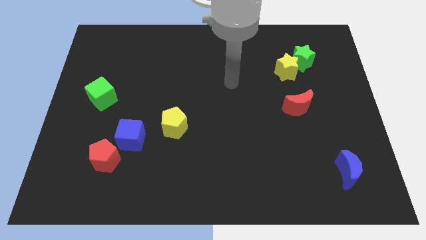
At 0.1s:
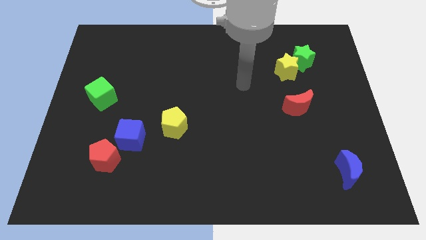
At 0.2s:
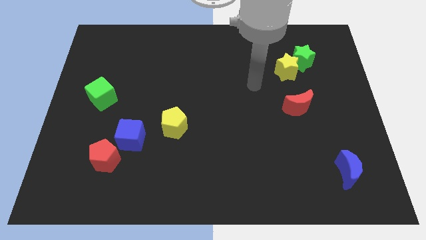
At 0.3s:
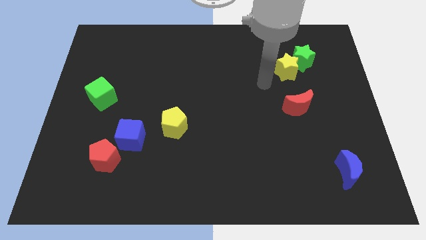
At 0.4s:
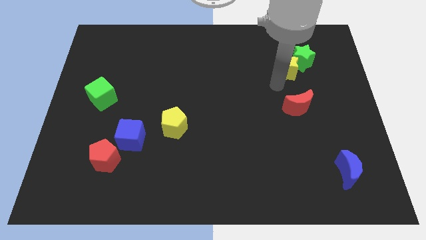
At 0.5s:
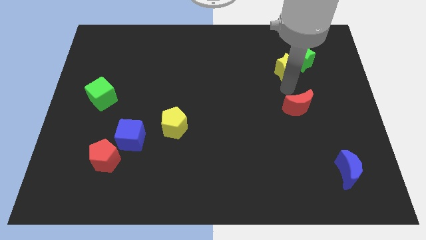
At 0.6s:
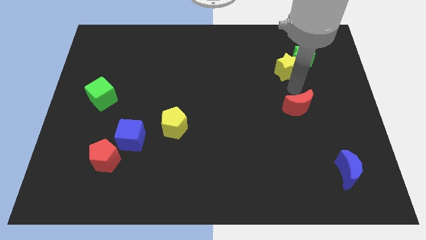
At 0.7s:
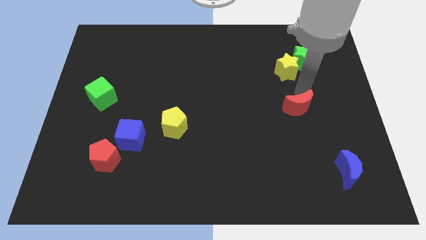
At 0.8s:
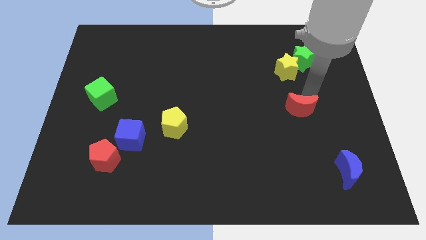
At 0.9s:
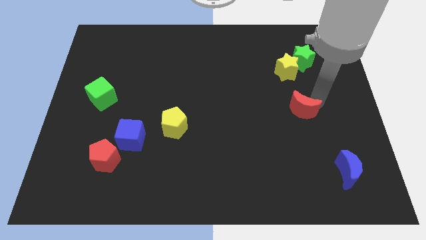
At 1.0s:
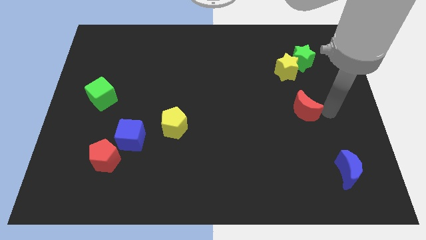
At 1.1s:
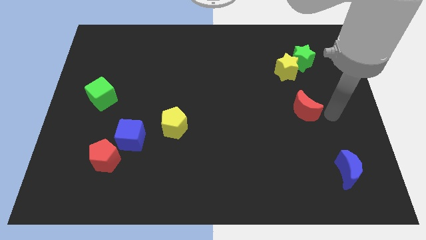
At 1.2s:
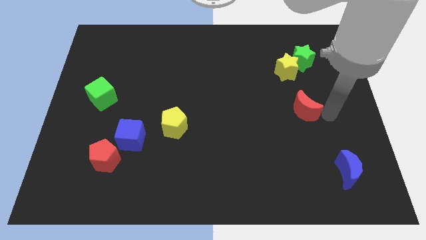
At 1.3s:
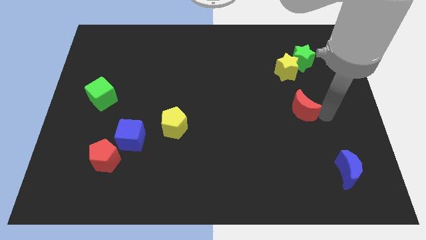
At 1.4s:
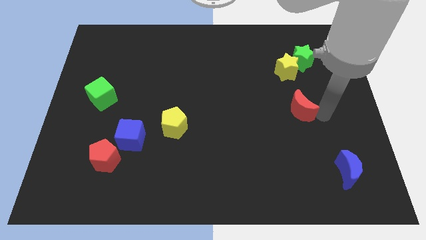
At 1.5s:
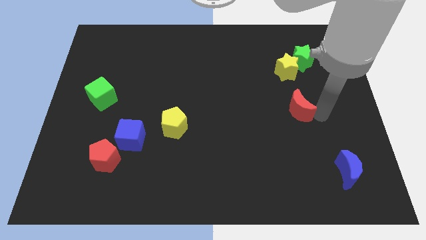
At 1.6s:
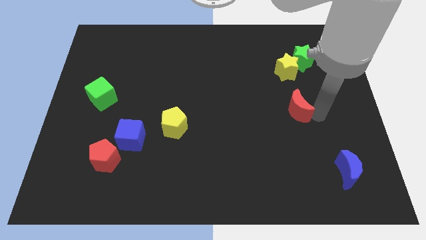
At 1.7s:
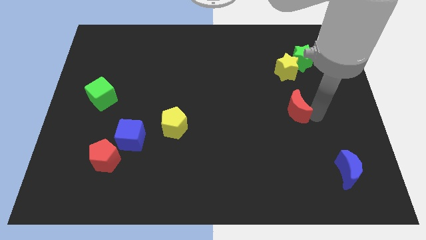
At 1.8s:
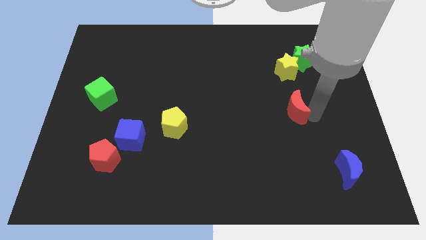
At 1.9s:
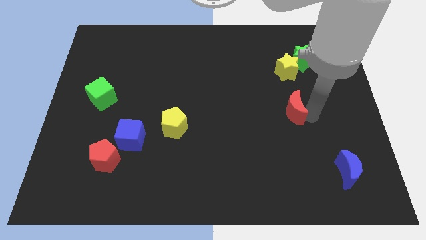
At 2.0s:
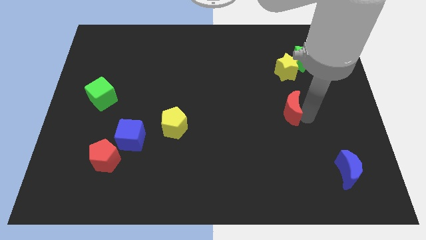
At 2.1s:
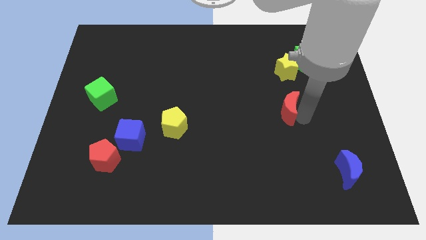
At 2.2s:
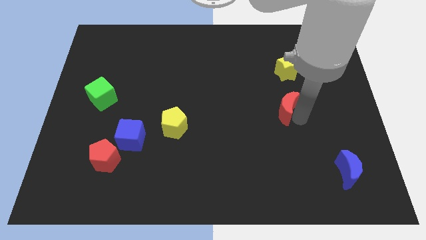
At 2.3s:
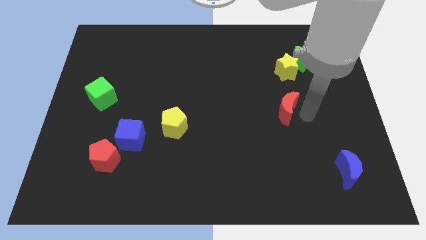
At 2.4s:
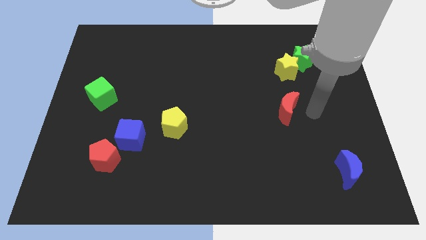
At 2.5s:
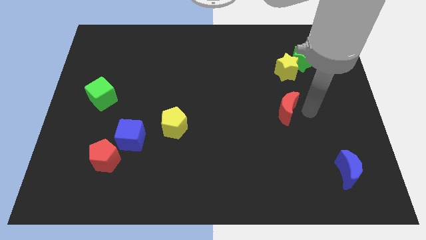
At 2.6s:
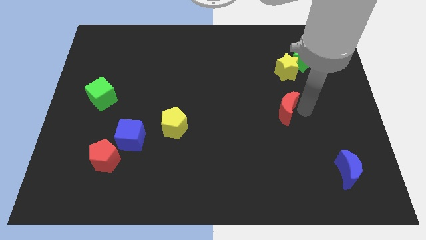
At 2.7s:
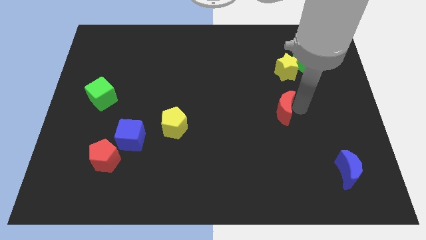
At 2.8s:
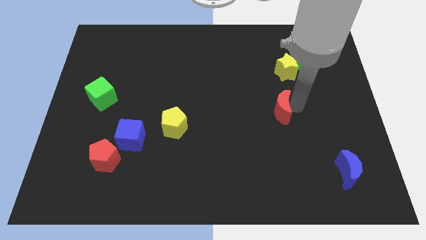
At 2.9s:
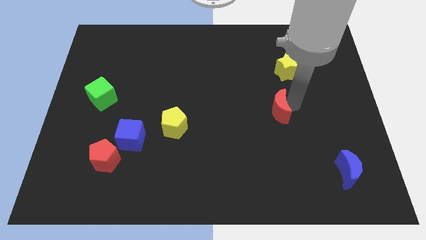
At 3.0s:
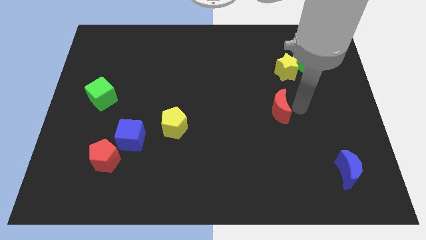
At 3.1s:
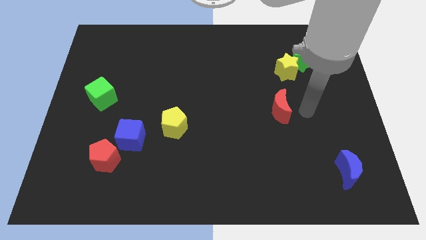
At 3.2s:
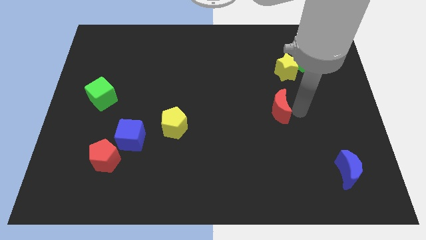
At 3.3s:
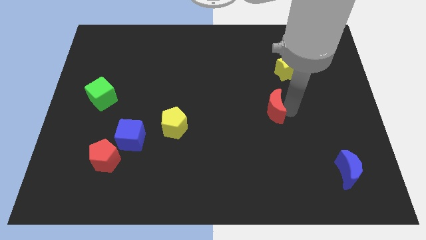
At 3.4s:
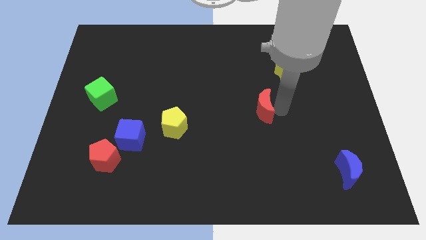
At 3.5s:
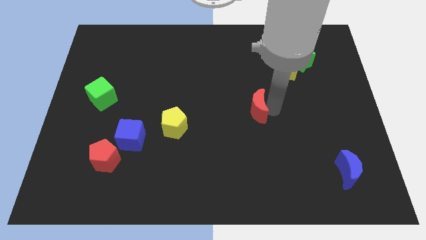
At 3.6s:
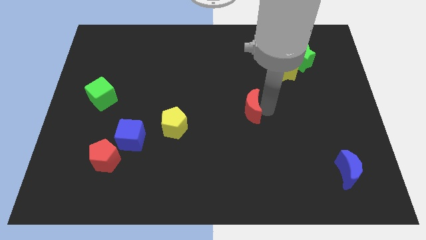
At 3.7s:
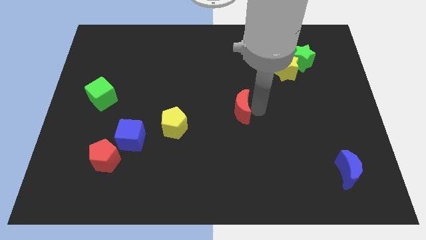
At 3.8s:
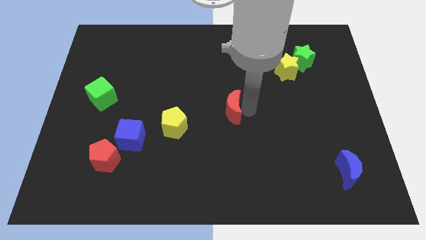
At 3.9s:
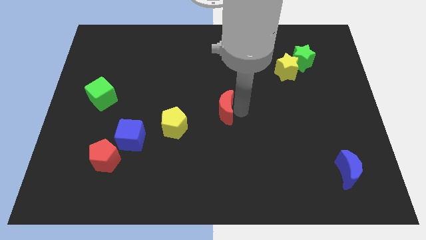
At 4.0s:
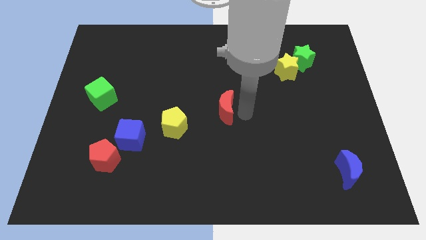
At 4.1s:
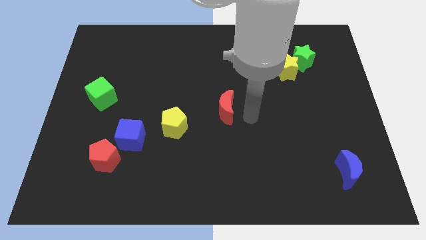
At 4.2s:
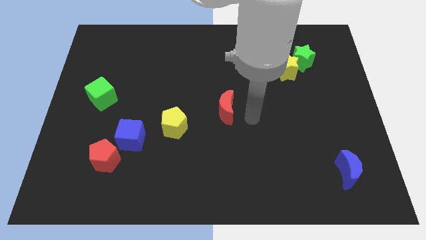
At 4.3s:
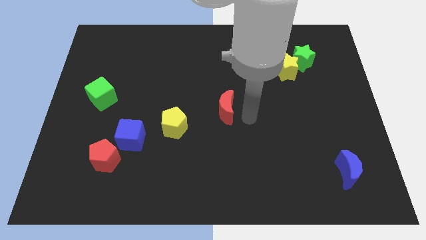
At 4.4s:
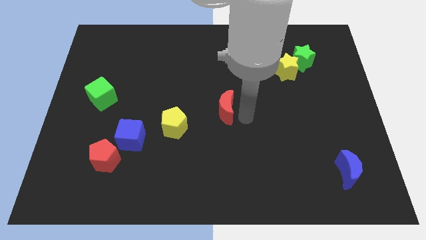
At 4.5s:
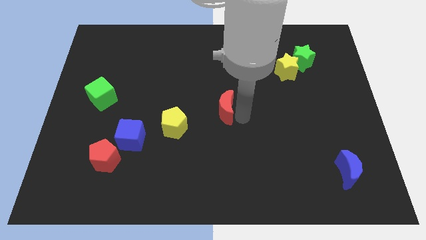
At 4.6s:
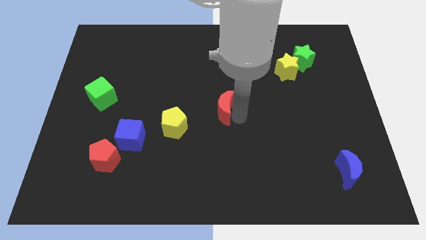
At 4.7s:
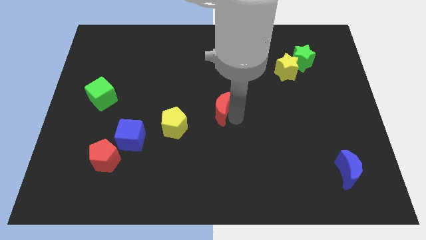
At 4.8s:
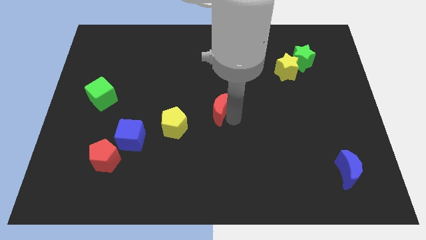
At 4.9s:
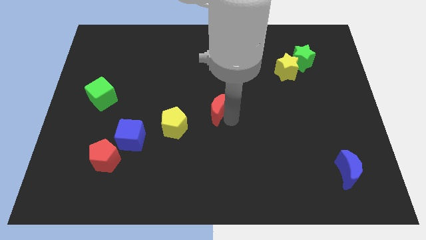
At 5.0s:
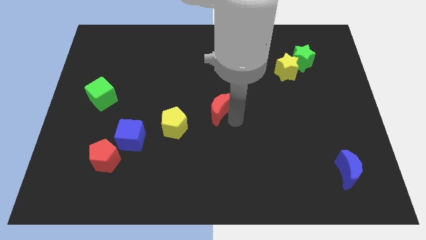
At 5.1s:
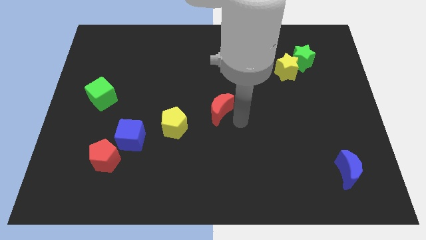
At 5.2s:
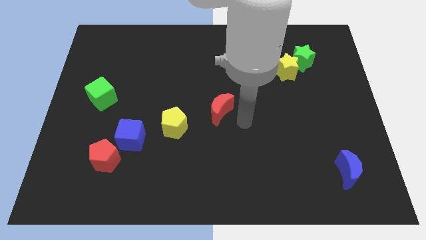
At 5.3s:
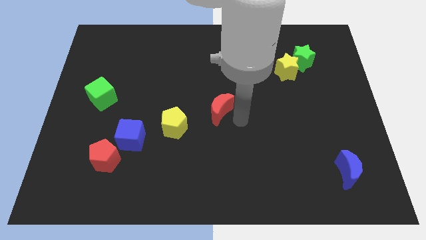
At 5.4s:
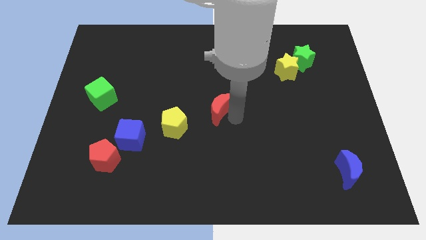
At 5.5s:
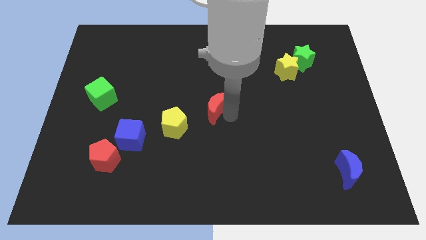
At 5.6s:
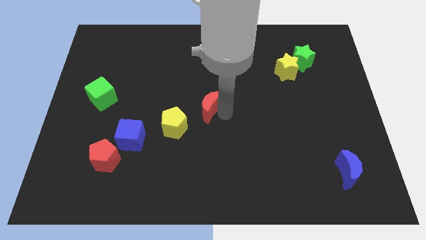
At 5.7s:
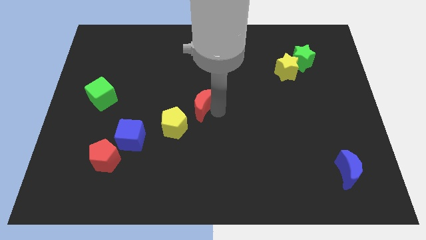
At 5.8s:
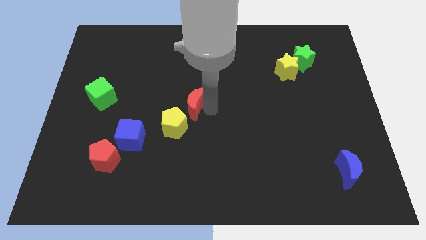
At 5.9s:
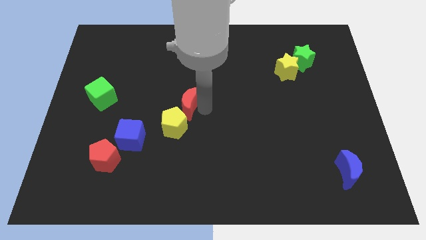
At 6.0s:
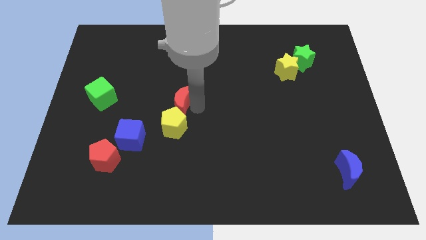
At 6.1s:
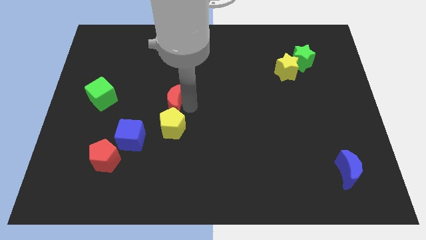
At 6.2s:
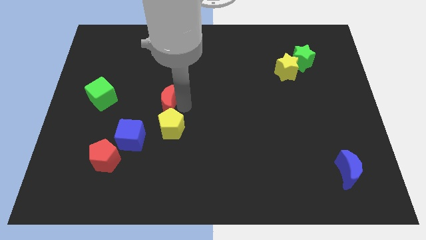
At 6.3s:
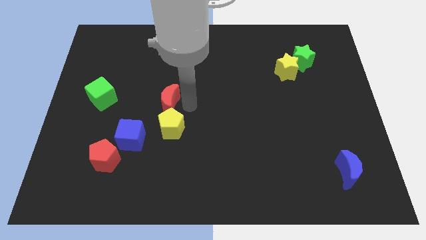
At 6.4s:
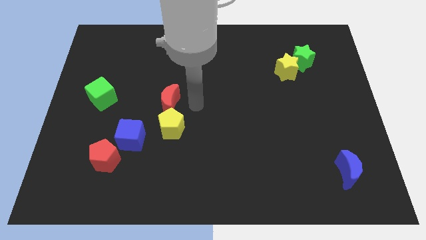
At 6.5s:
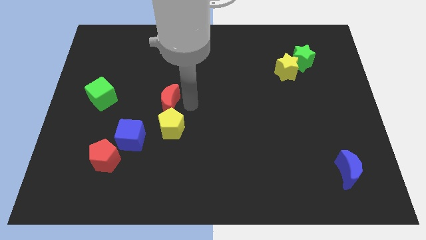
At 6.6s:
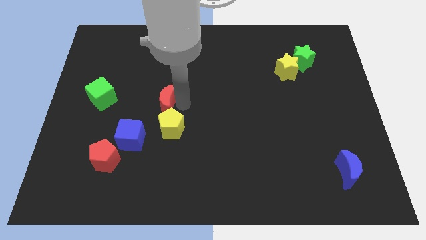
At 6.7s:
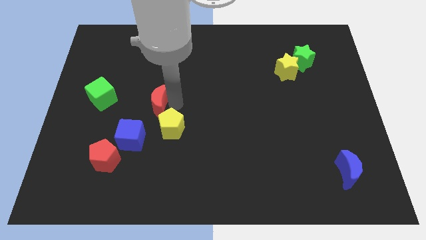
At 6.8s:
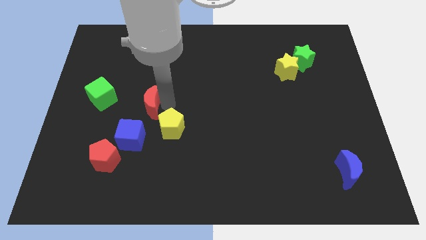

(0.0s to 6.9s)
push the red moon to the top of the blue cube

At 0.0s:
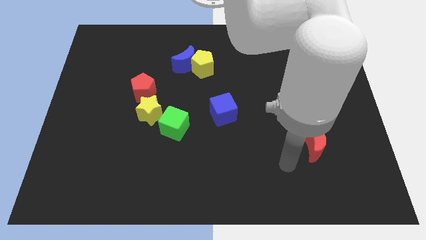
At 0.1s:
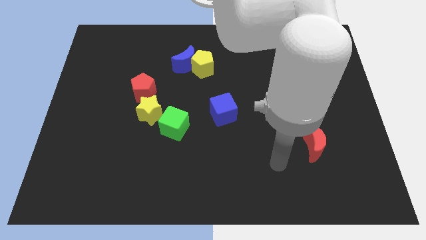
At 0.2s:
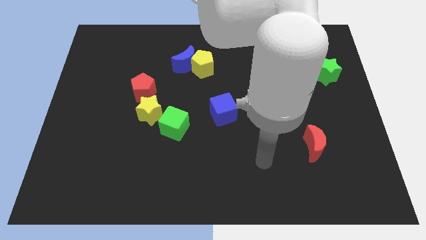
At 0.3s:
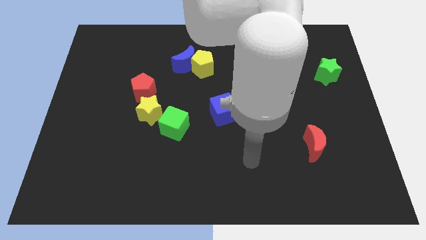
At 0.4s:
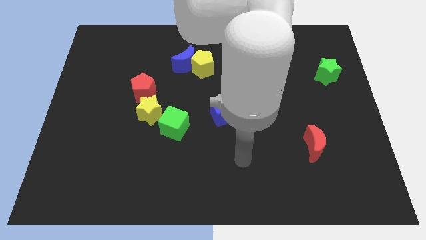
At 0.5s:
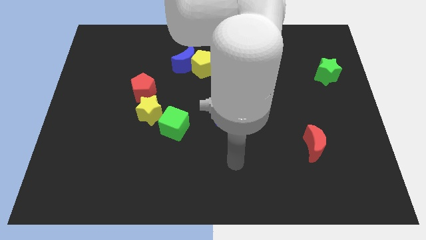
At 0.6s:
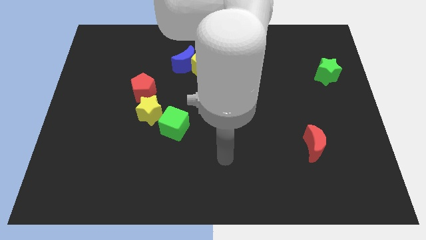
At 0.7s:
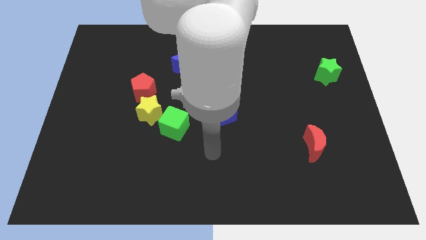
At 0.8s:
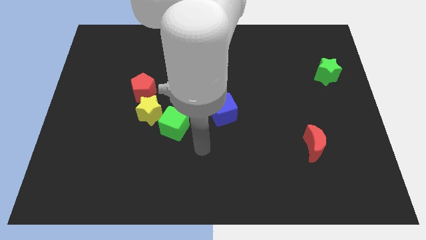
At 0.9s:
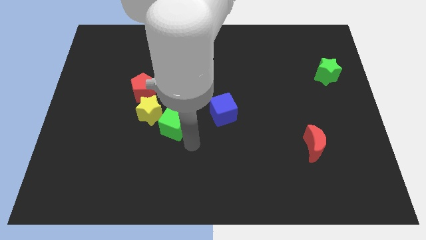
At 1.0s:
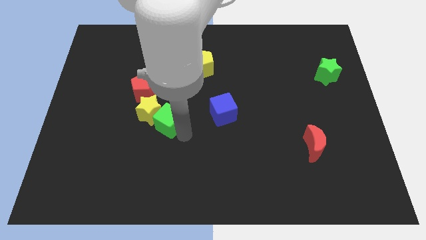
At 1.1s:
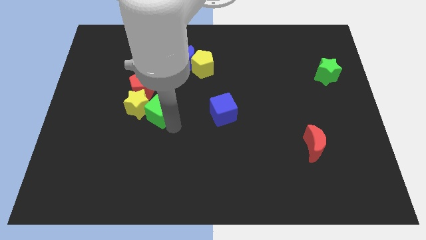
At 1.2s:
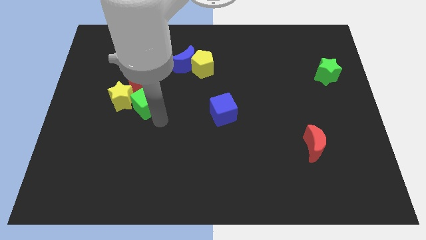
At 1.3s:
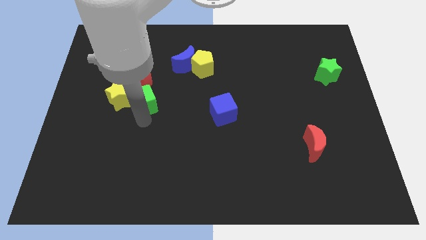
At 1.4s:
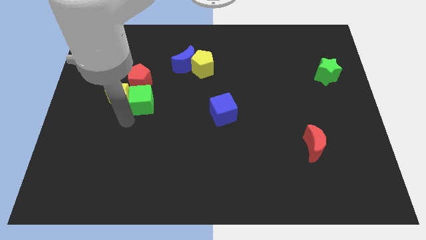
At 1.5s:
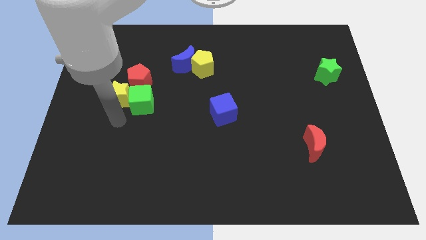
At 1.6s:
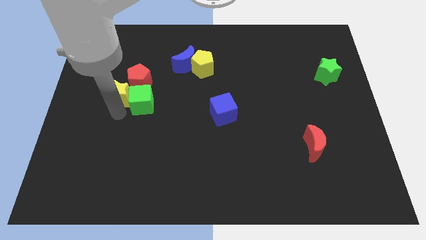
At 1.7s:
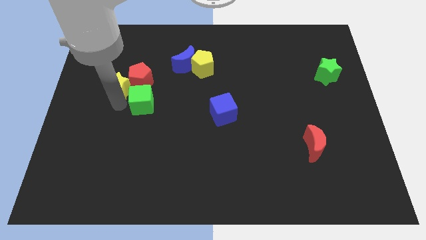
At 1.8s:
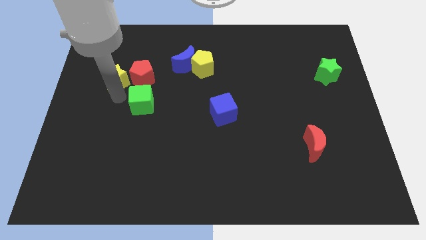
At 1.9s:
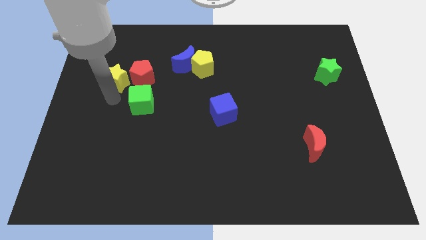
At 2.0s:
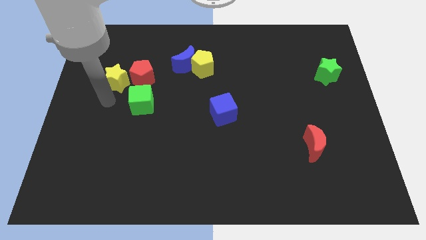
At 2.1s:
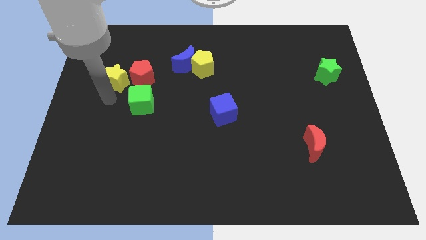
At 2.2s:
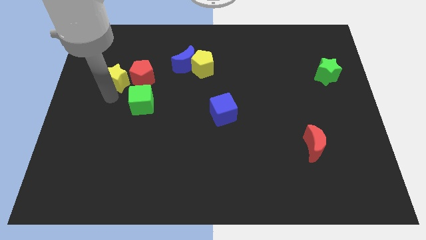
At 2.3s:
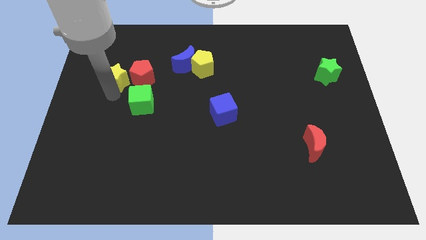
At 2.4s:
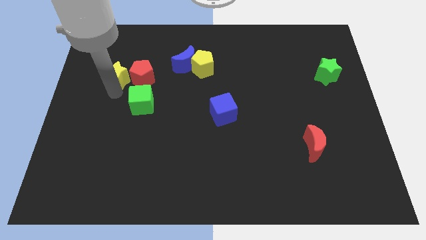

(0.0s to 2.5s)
push the yellow star diagonally up and to the left of the red pentagon
